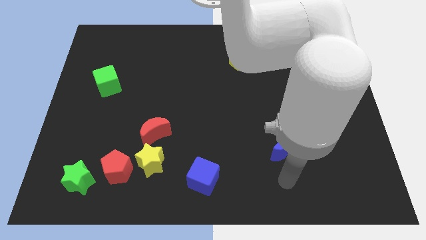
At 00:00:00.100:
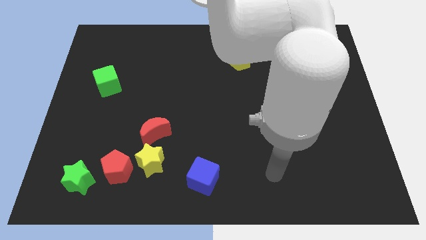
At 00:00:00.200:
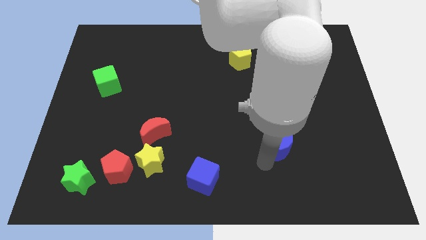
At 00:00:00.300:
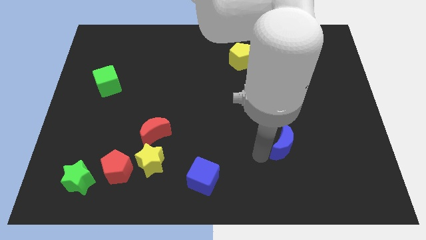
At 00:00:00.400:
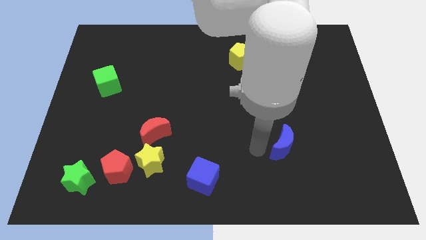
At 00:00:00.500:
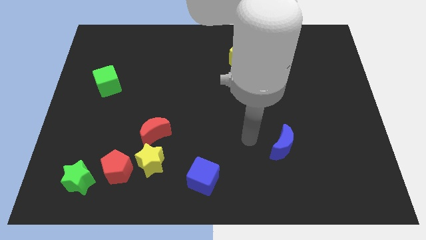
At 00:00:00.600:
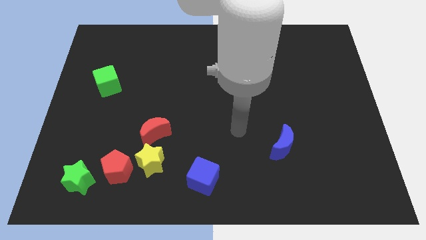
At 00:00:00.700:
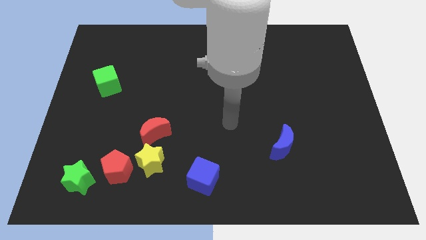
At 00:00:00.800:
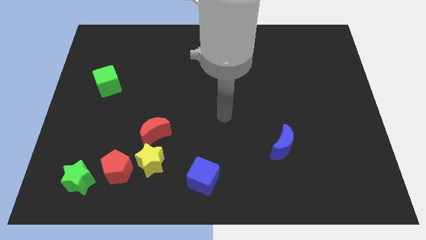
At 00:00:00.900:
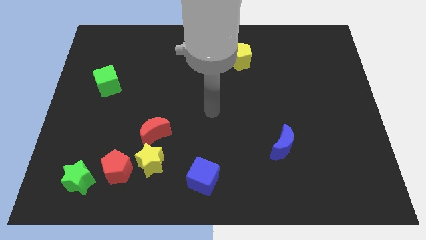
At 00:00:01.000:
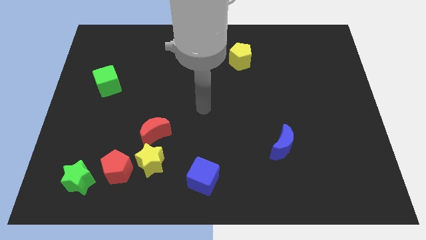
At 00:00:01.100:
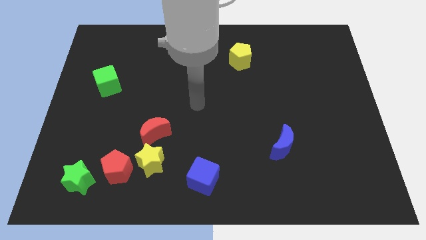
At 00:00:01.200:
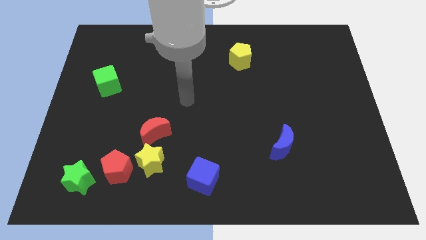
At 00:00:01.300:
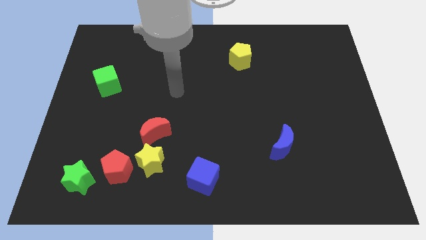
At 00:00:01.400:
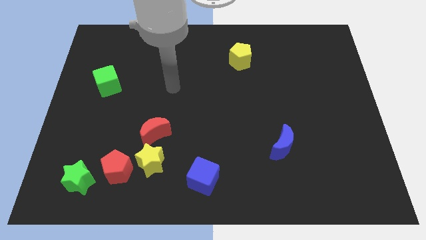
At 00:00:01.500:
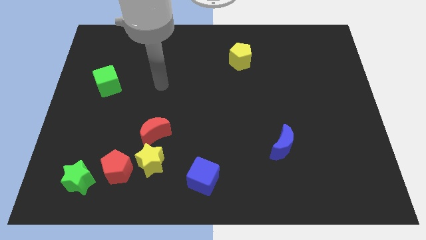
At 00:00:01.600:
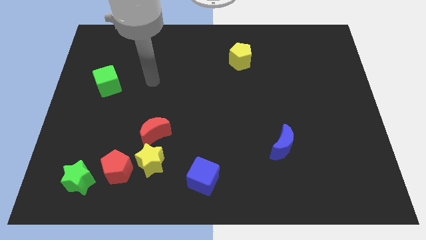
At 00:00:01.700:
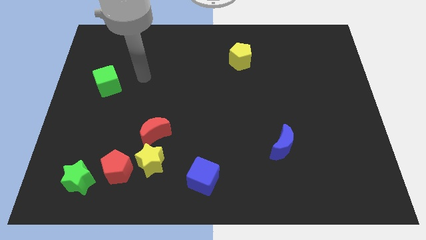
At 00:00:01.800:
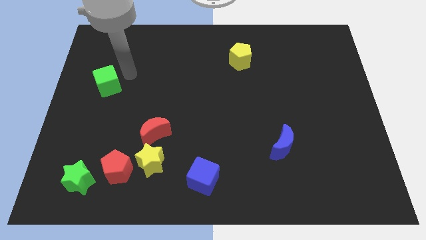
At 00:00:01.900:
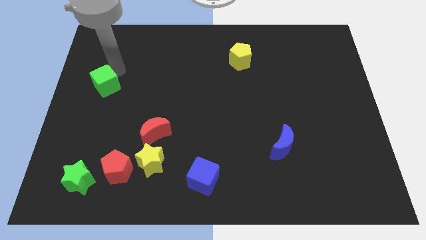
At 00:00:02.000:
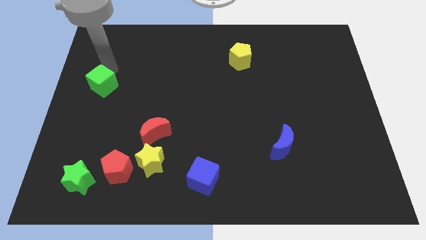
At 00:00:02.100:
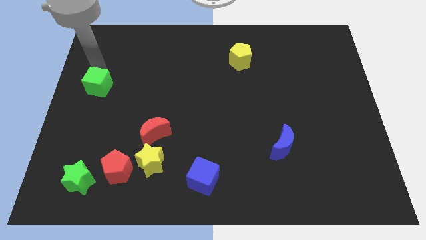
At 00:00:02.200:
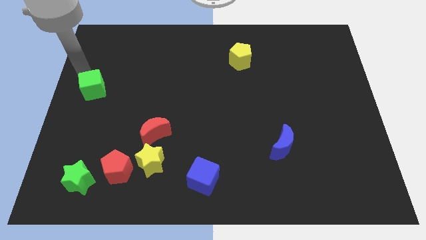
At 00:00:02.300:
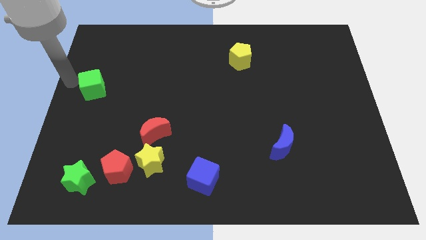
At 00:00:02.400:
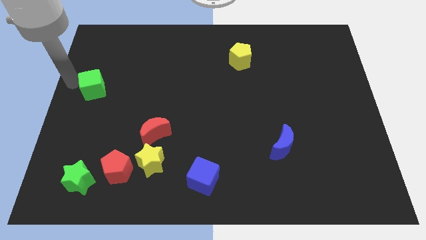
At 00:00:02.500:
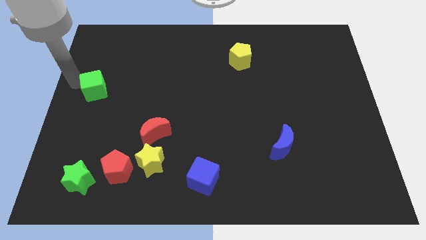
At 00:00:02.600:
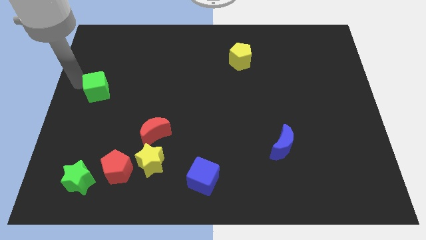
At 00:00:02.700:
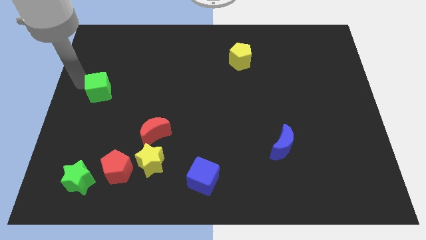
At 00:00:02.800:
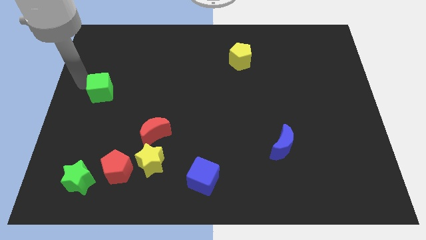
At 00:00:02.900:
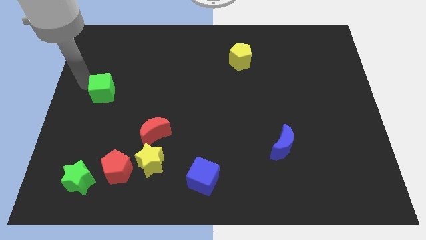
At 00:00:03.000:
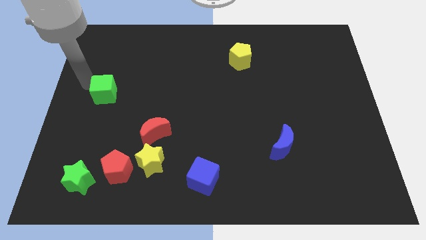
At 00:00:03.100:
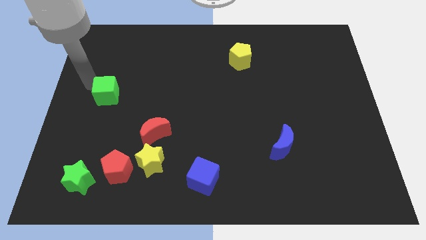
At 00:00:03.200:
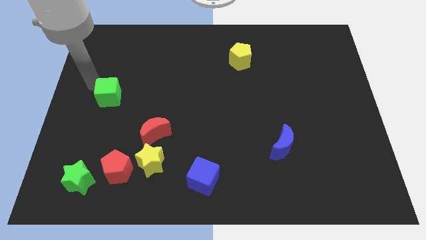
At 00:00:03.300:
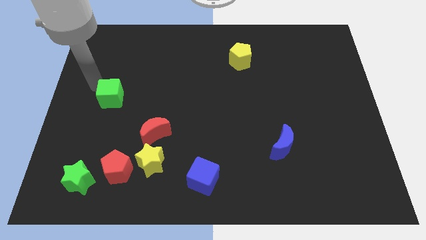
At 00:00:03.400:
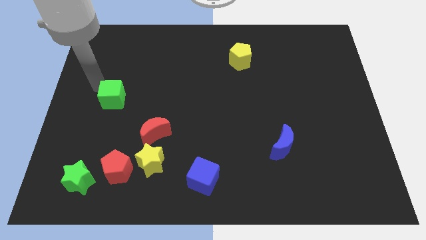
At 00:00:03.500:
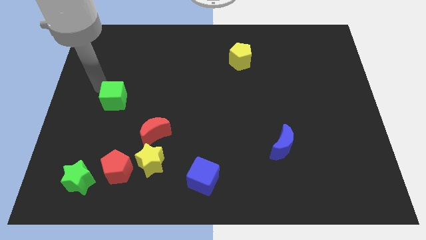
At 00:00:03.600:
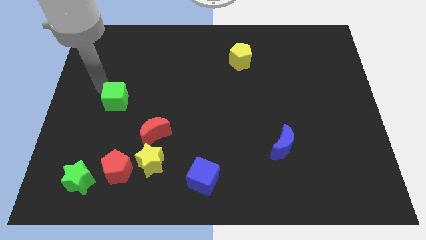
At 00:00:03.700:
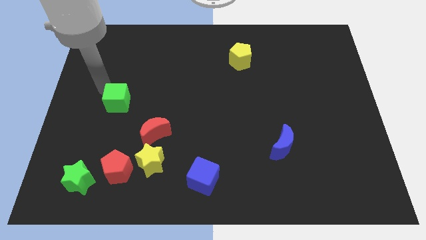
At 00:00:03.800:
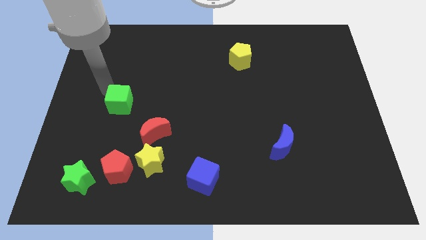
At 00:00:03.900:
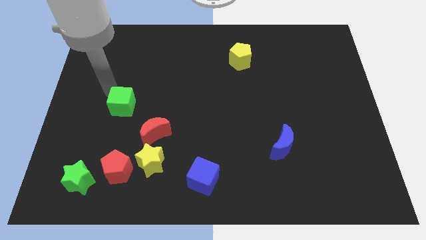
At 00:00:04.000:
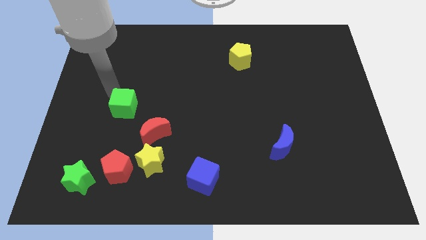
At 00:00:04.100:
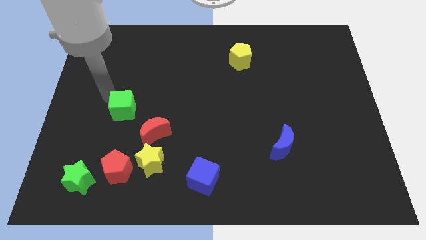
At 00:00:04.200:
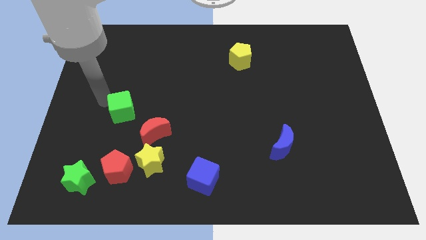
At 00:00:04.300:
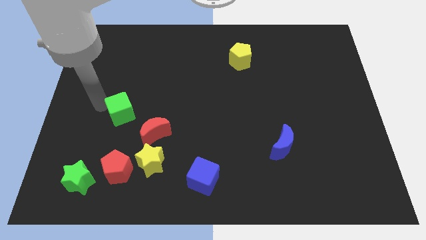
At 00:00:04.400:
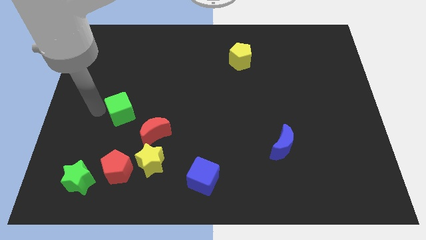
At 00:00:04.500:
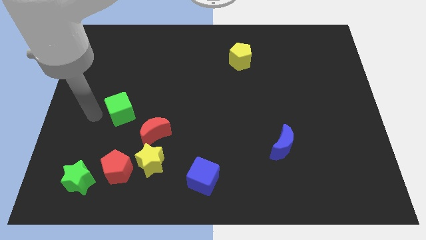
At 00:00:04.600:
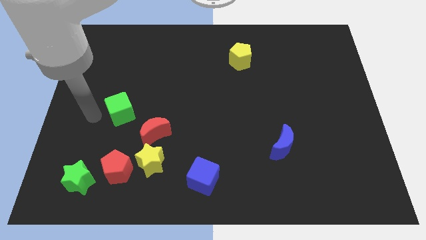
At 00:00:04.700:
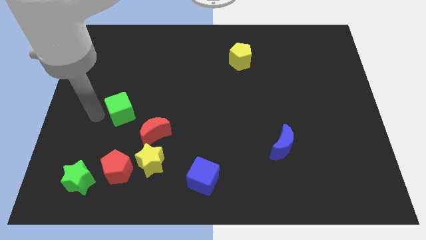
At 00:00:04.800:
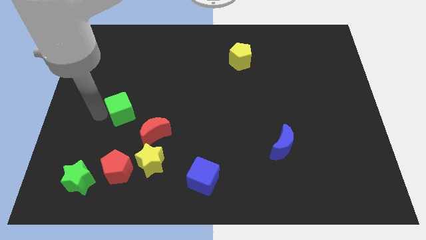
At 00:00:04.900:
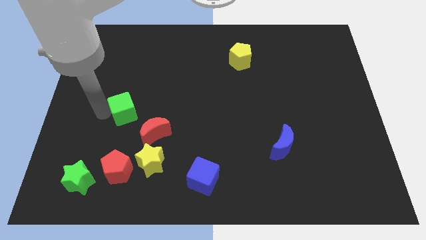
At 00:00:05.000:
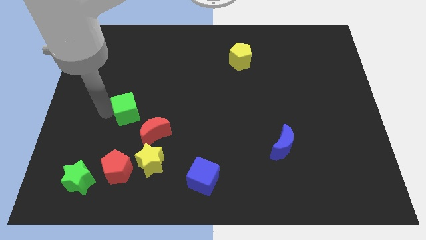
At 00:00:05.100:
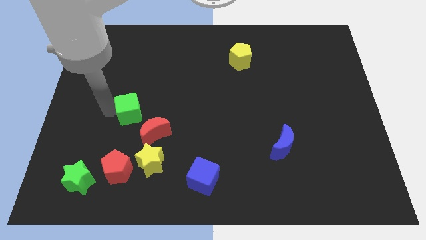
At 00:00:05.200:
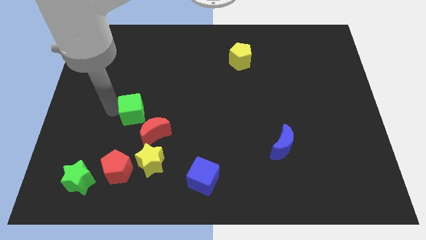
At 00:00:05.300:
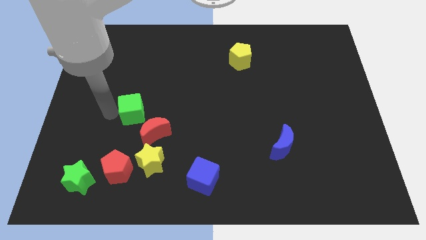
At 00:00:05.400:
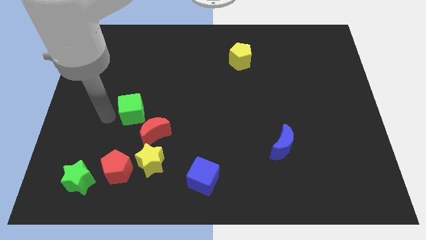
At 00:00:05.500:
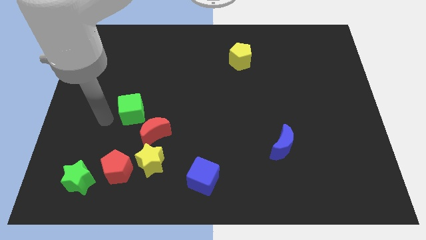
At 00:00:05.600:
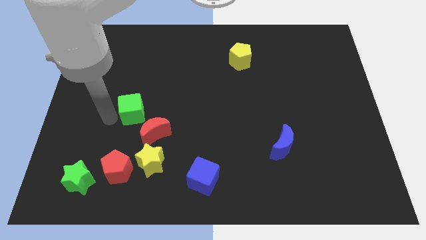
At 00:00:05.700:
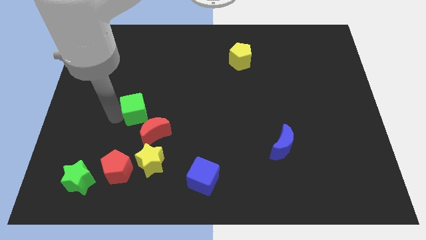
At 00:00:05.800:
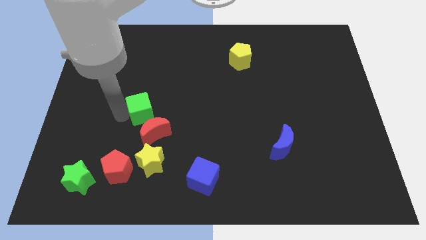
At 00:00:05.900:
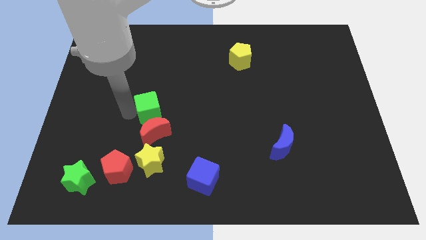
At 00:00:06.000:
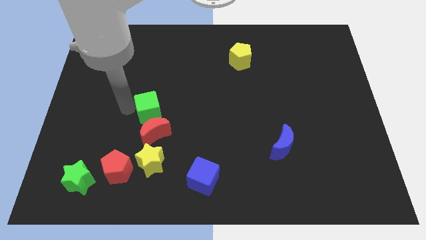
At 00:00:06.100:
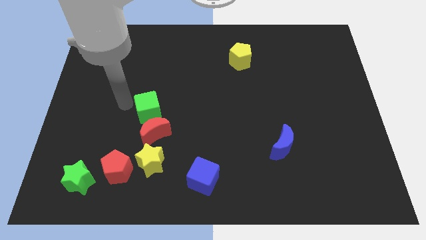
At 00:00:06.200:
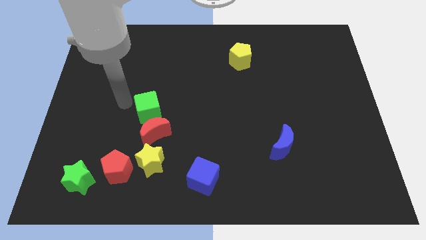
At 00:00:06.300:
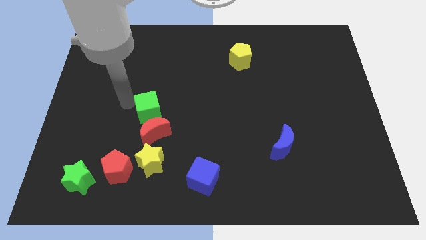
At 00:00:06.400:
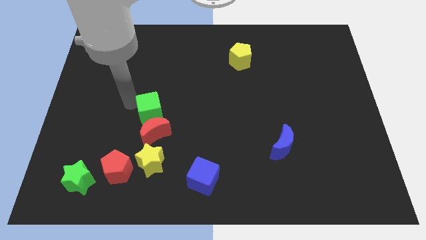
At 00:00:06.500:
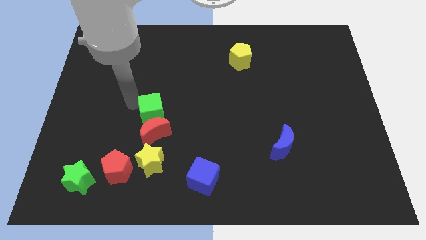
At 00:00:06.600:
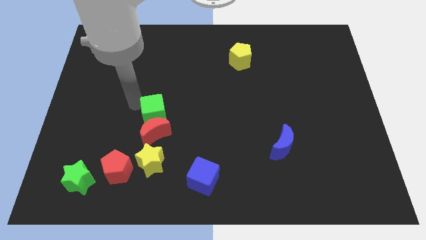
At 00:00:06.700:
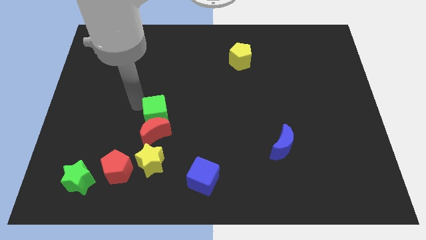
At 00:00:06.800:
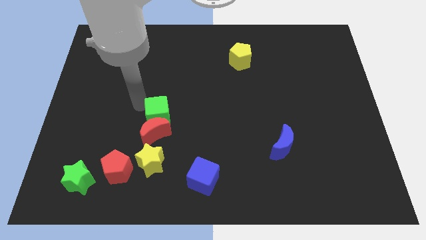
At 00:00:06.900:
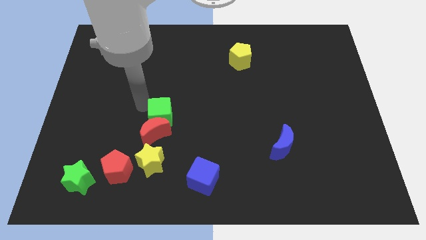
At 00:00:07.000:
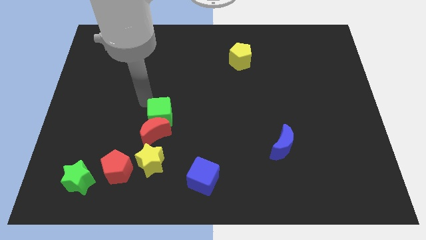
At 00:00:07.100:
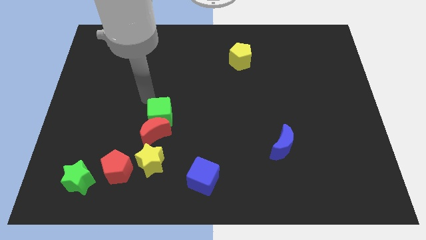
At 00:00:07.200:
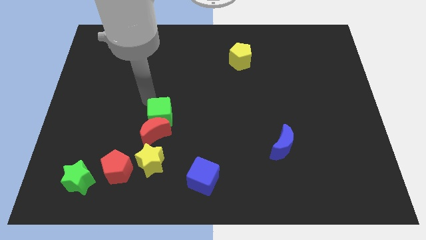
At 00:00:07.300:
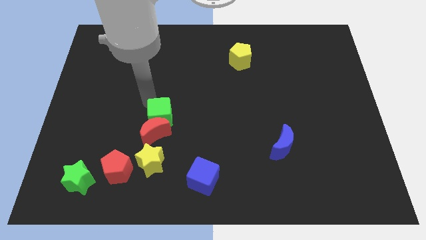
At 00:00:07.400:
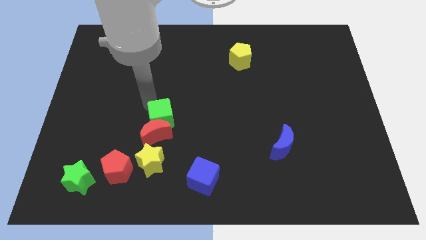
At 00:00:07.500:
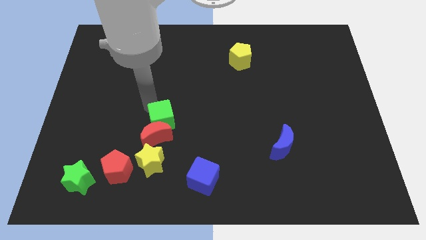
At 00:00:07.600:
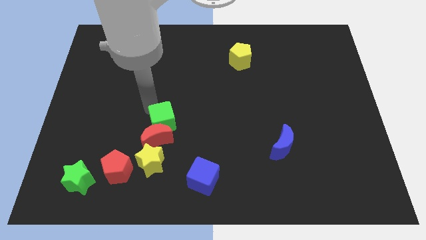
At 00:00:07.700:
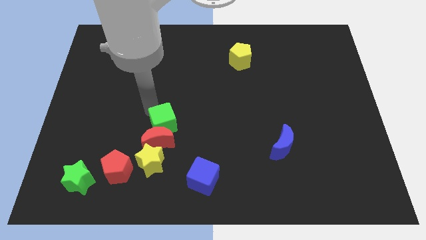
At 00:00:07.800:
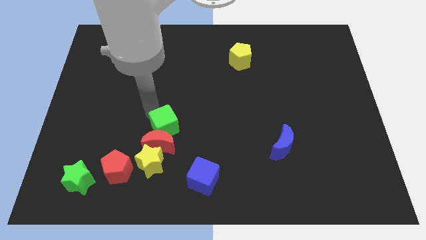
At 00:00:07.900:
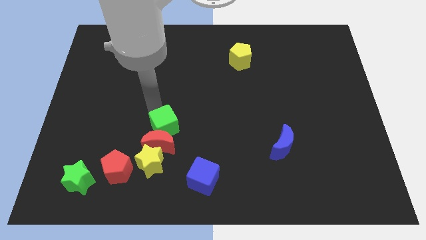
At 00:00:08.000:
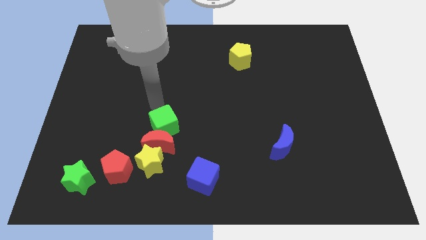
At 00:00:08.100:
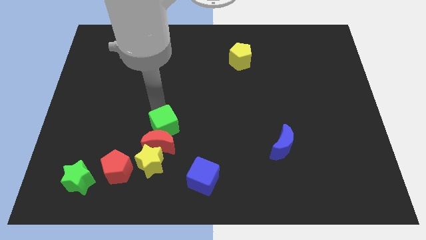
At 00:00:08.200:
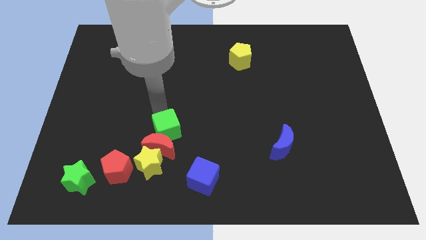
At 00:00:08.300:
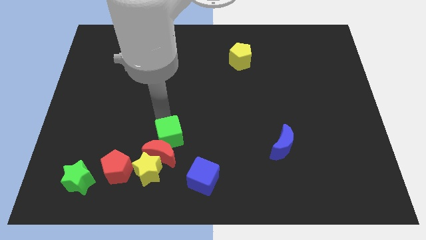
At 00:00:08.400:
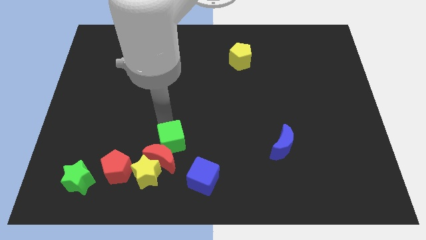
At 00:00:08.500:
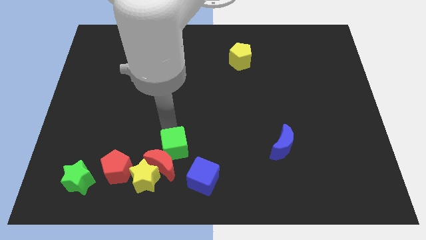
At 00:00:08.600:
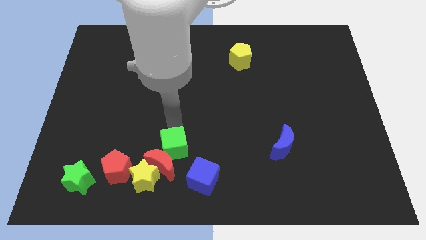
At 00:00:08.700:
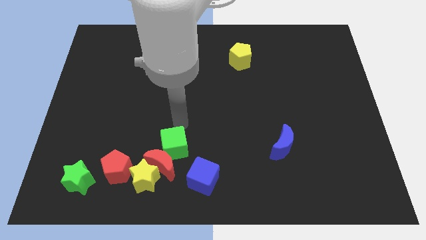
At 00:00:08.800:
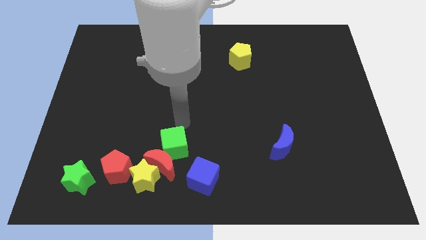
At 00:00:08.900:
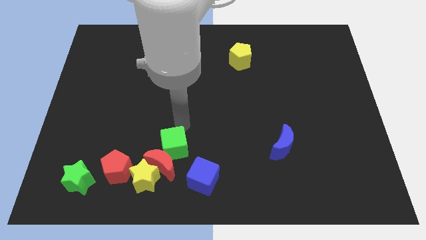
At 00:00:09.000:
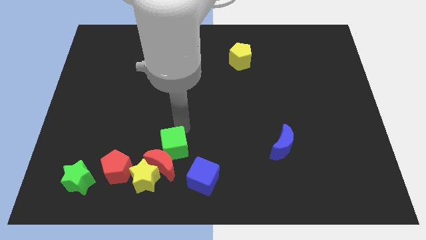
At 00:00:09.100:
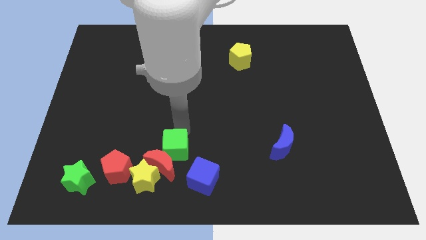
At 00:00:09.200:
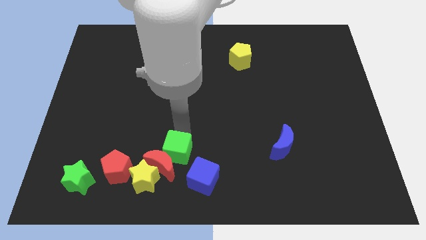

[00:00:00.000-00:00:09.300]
move the green cube to the right of the red pentagon
